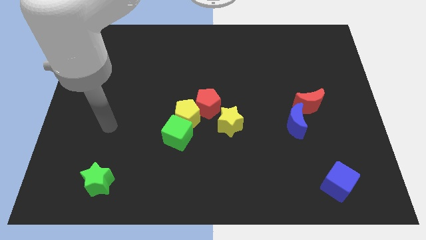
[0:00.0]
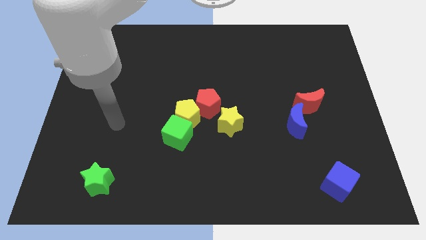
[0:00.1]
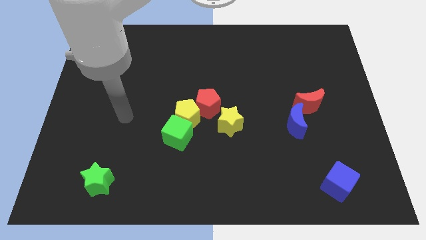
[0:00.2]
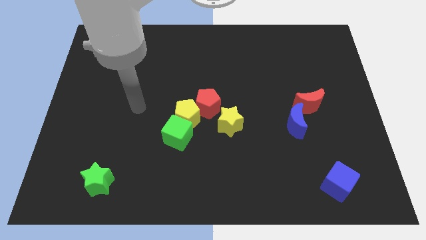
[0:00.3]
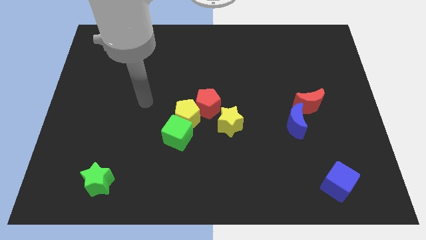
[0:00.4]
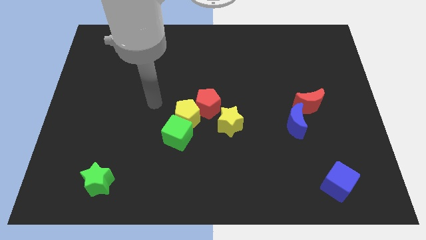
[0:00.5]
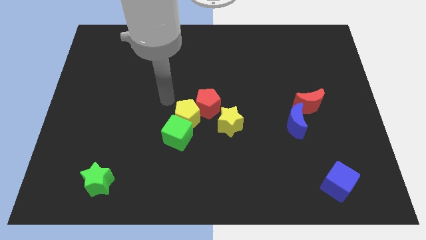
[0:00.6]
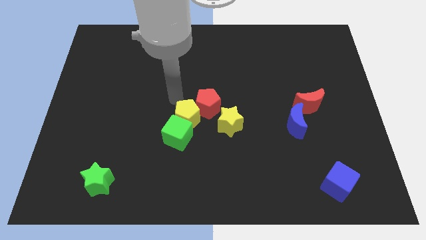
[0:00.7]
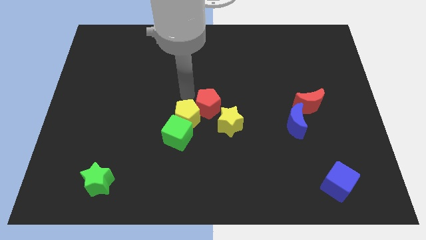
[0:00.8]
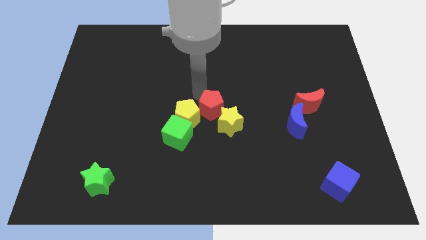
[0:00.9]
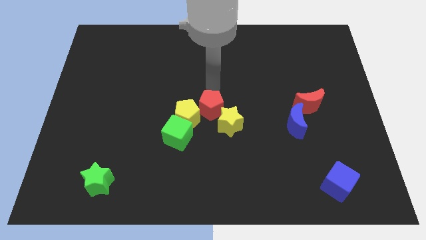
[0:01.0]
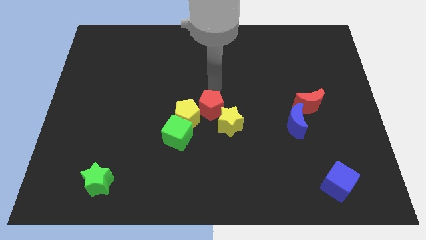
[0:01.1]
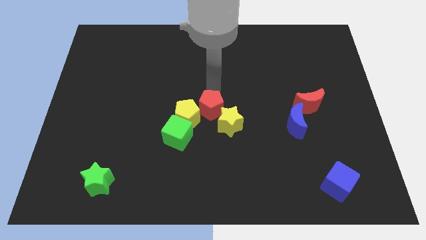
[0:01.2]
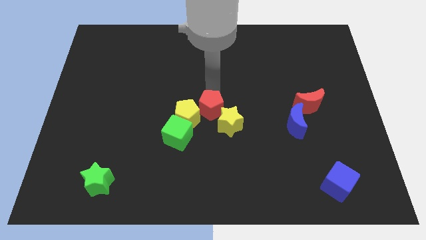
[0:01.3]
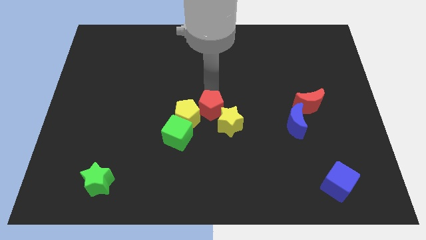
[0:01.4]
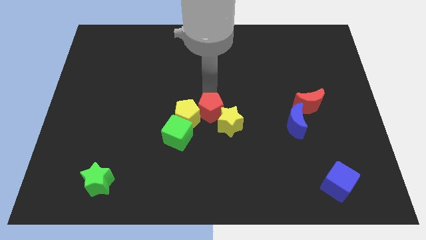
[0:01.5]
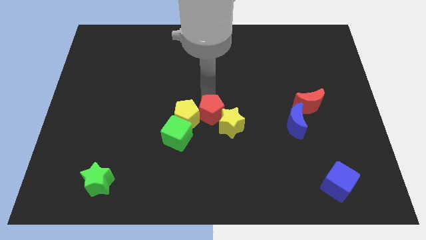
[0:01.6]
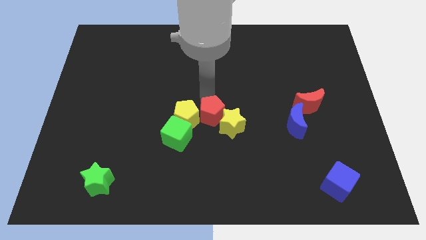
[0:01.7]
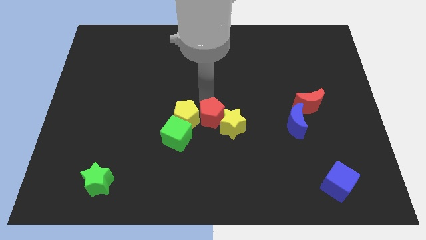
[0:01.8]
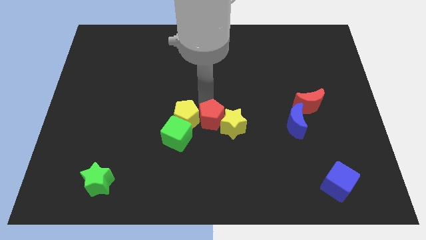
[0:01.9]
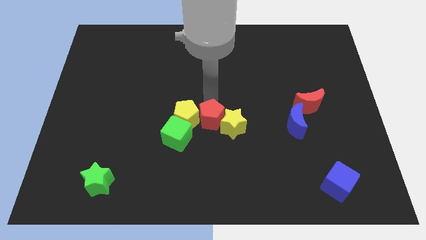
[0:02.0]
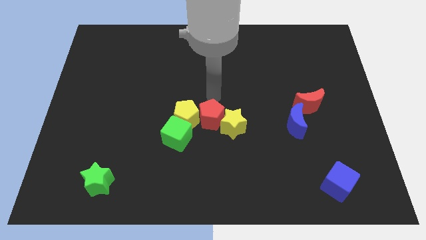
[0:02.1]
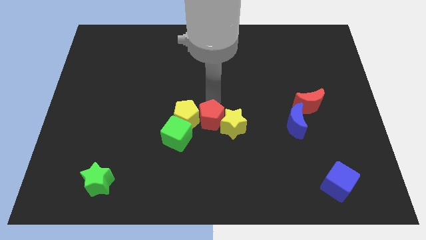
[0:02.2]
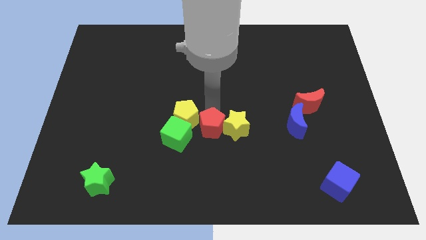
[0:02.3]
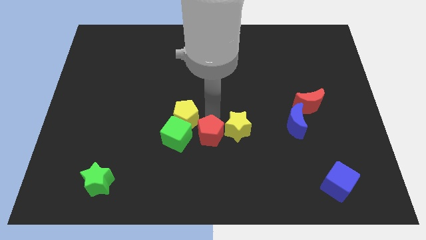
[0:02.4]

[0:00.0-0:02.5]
slightly push the red pentagon downwards

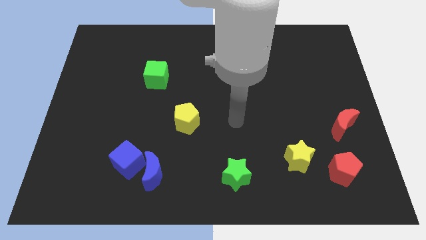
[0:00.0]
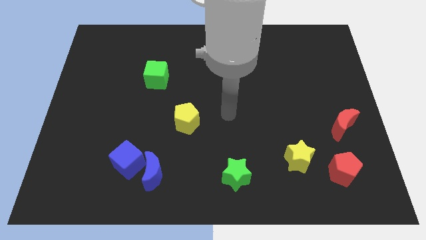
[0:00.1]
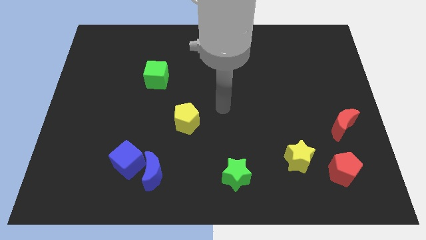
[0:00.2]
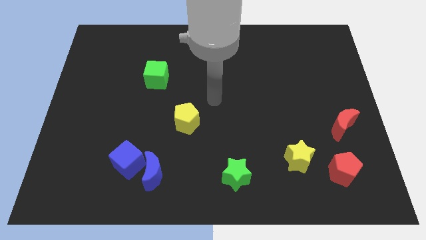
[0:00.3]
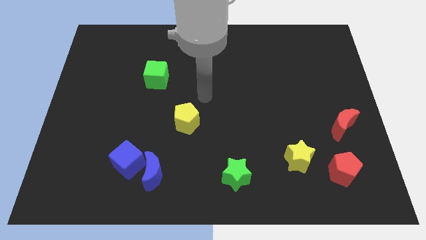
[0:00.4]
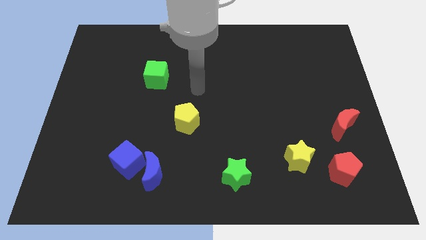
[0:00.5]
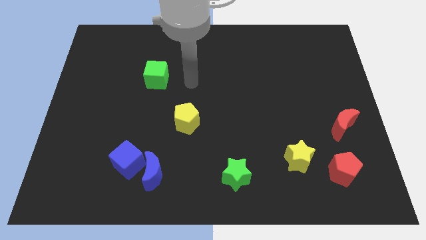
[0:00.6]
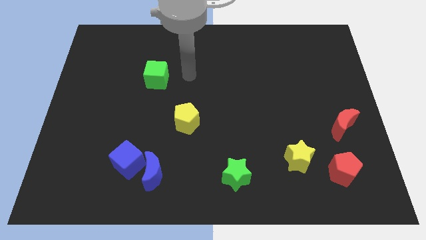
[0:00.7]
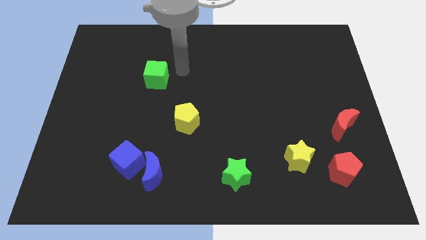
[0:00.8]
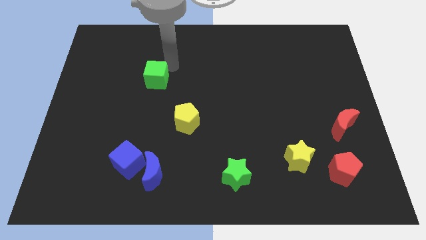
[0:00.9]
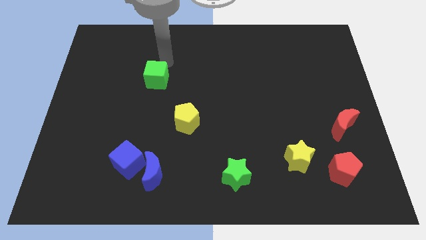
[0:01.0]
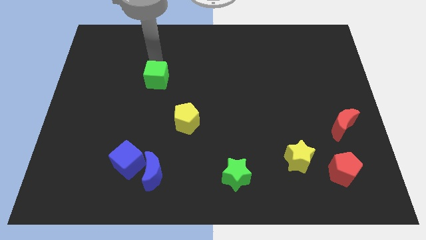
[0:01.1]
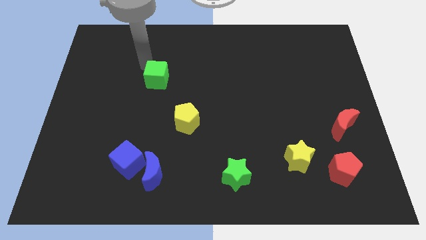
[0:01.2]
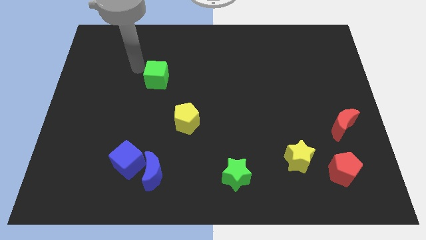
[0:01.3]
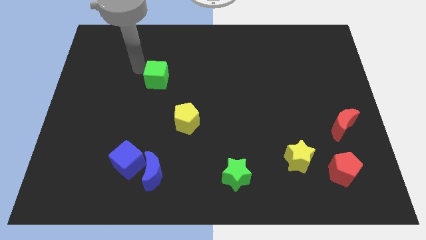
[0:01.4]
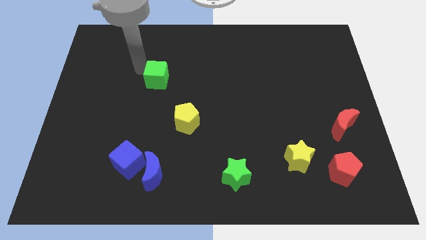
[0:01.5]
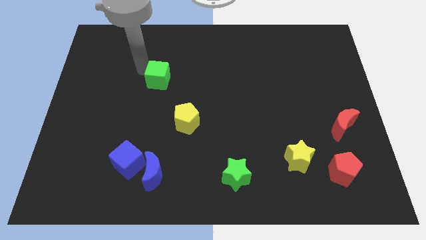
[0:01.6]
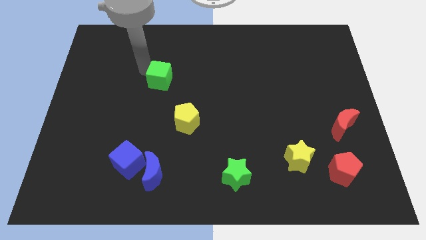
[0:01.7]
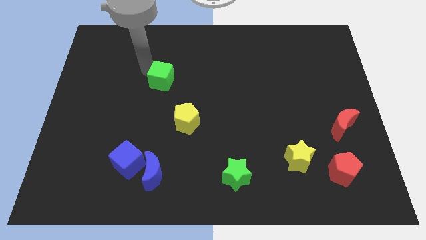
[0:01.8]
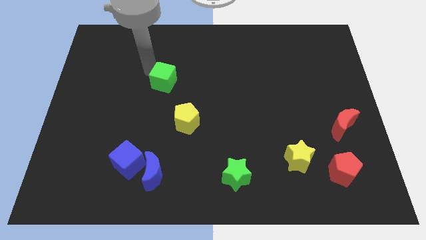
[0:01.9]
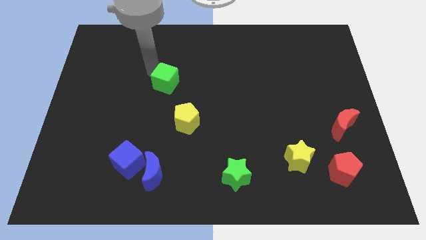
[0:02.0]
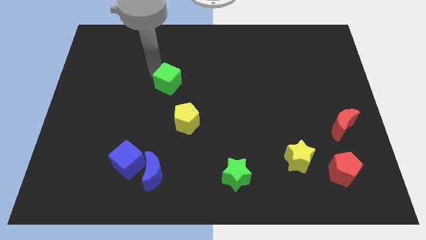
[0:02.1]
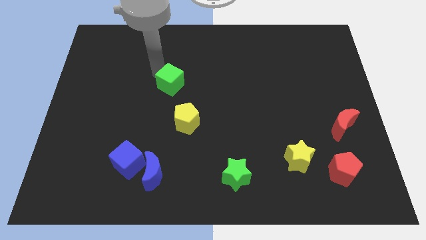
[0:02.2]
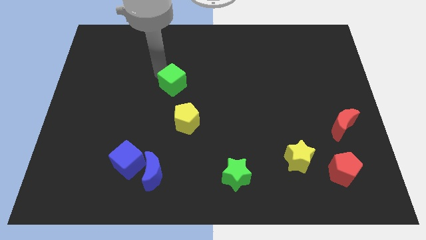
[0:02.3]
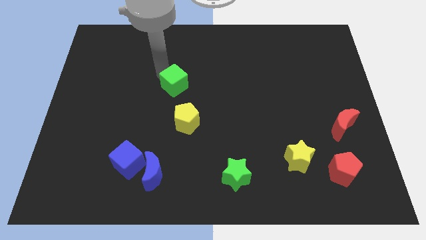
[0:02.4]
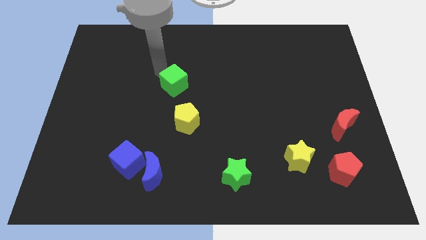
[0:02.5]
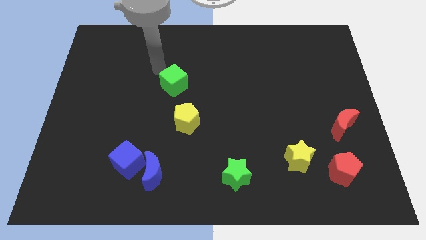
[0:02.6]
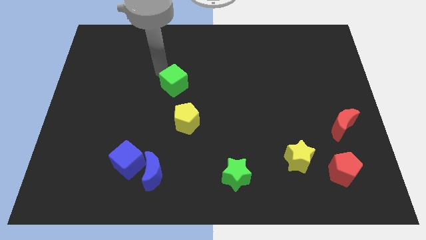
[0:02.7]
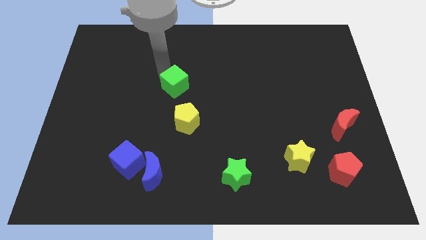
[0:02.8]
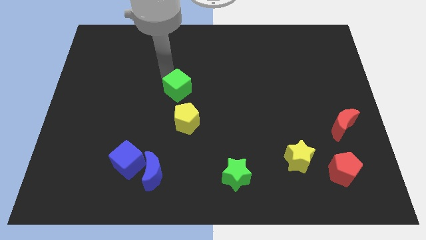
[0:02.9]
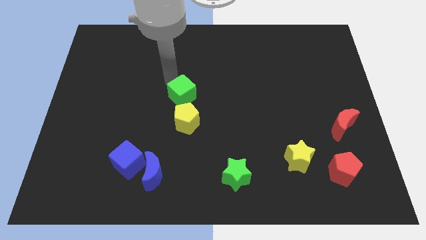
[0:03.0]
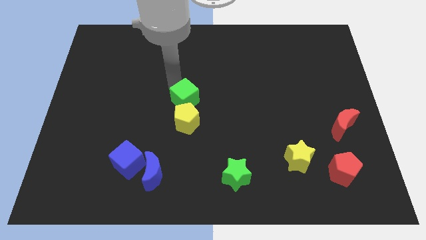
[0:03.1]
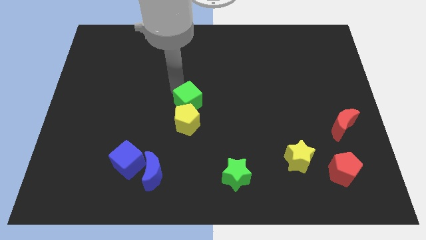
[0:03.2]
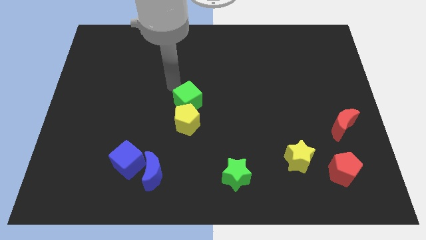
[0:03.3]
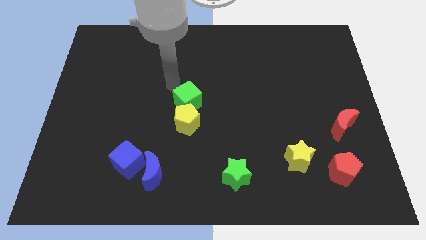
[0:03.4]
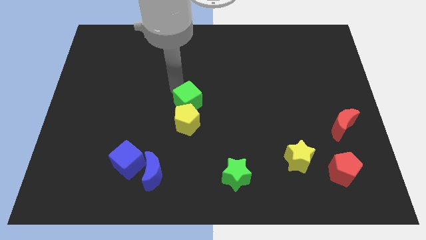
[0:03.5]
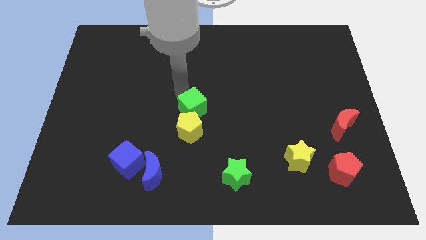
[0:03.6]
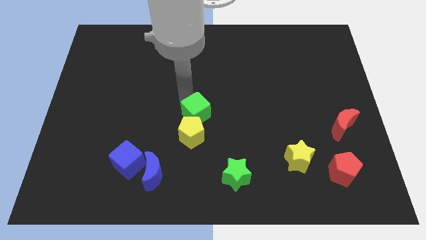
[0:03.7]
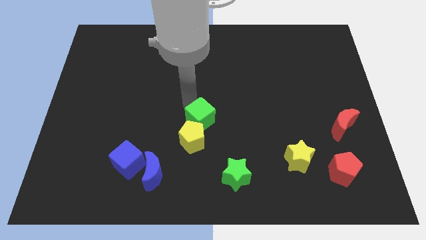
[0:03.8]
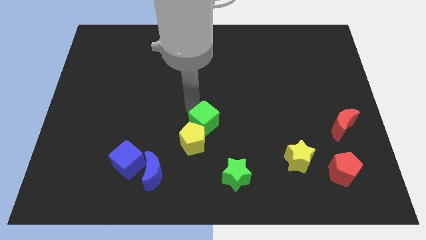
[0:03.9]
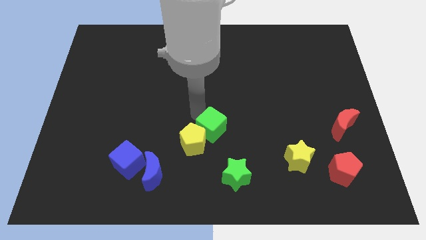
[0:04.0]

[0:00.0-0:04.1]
push the green cube diagonally downwards and to the right

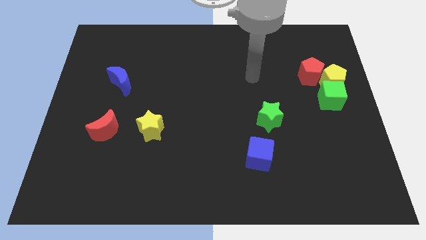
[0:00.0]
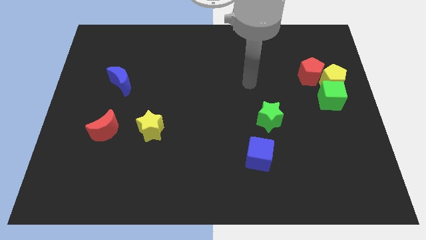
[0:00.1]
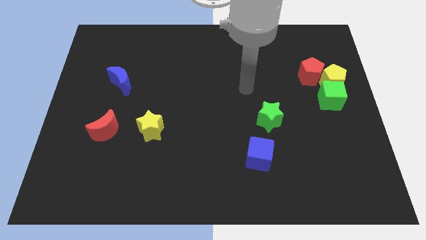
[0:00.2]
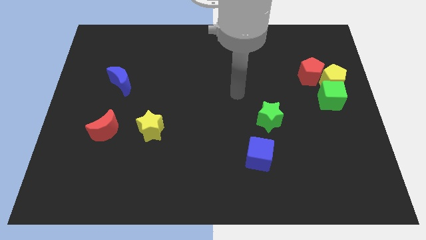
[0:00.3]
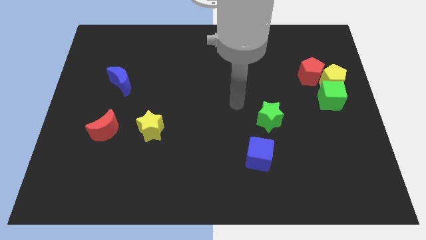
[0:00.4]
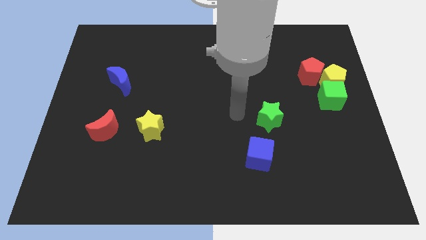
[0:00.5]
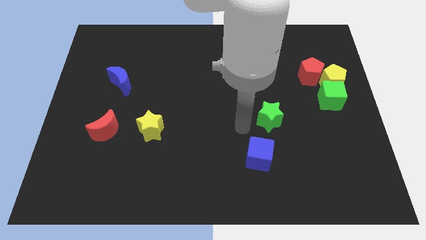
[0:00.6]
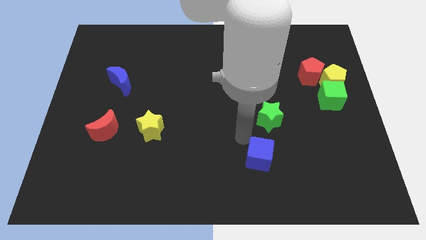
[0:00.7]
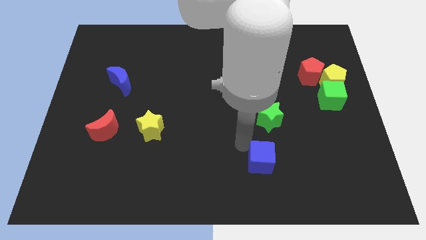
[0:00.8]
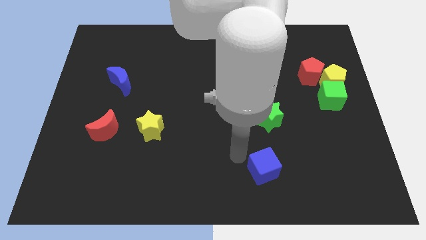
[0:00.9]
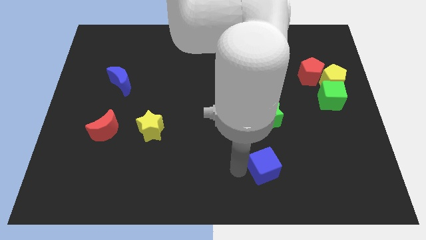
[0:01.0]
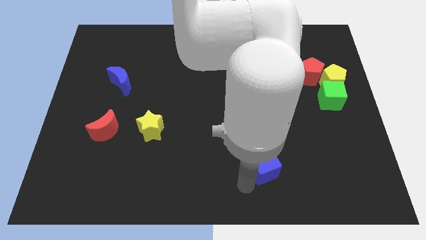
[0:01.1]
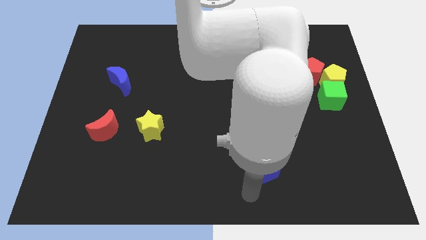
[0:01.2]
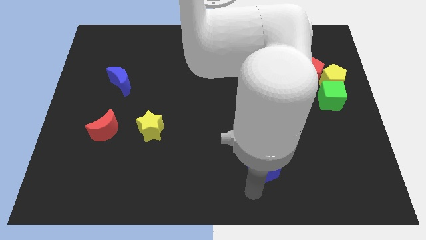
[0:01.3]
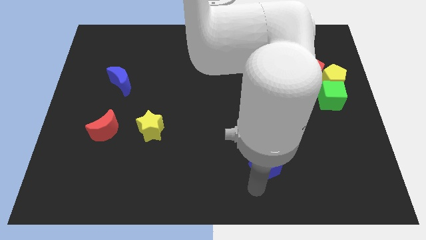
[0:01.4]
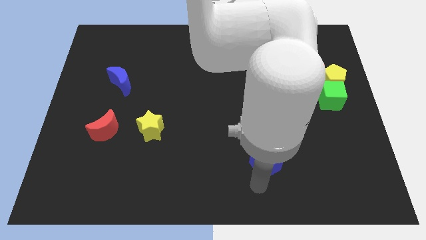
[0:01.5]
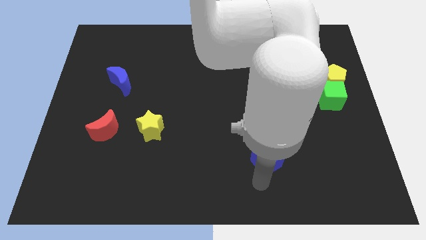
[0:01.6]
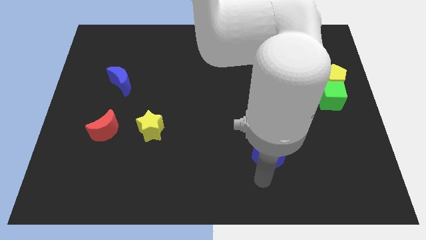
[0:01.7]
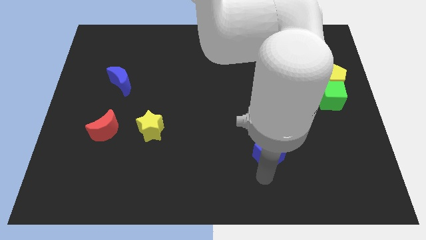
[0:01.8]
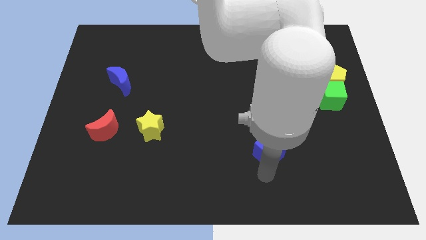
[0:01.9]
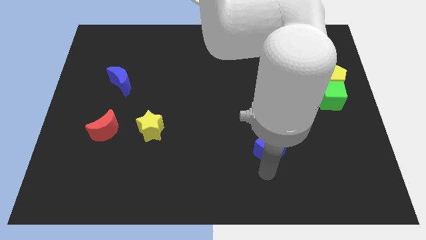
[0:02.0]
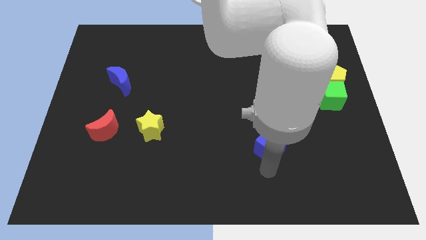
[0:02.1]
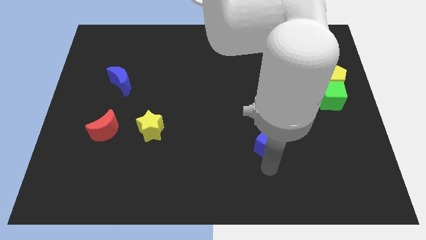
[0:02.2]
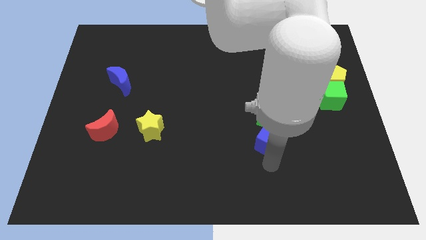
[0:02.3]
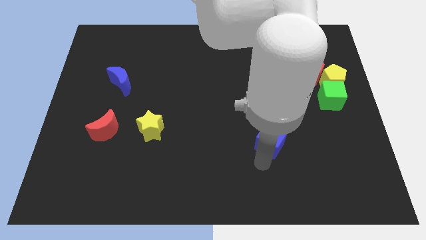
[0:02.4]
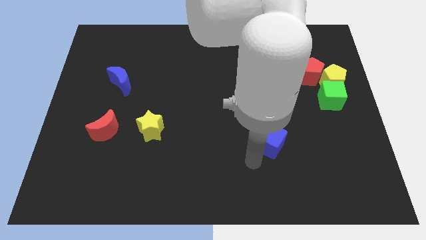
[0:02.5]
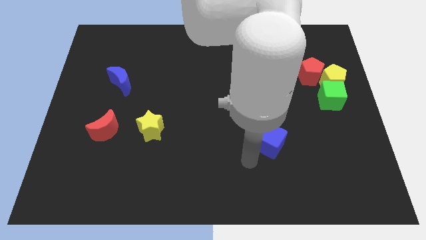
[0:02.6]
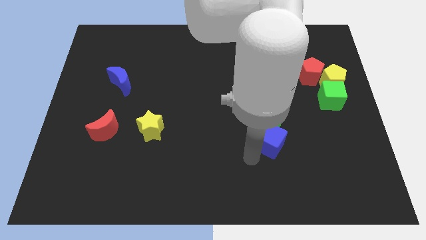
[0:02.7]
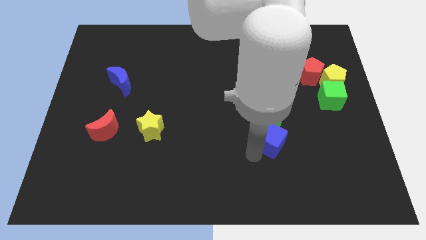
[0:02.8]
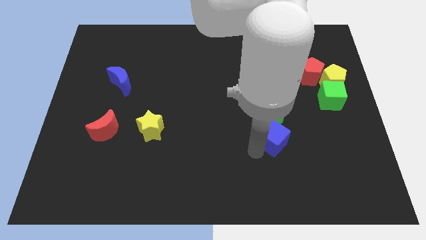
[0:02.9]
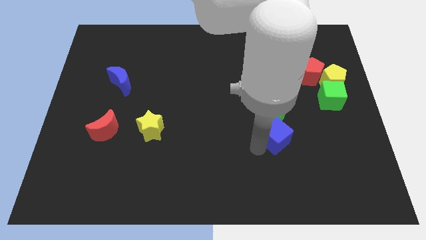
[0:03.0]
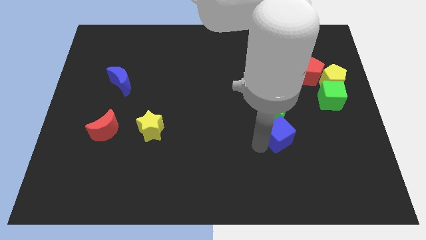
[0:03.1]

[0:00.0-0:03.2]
move the blue cube slightly upwards and then to the right
